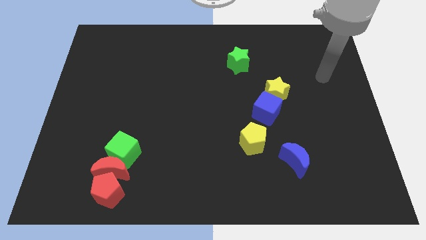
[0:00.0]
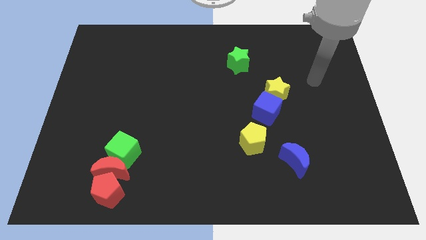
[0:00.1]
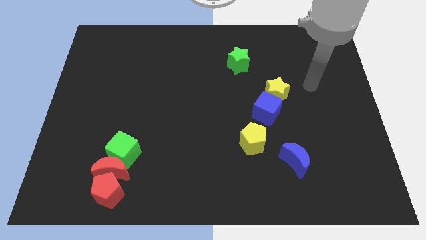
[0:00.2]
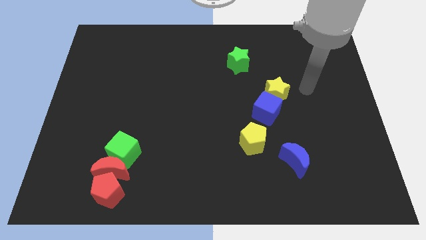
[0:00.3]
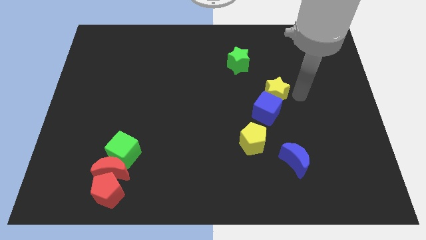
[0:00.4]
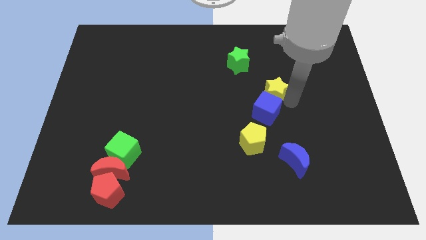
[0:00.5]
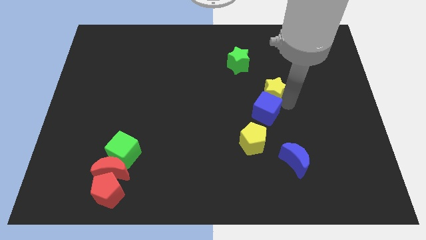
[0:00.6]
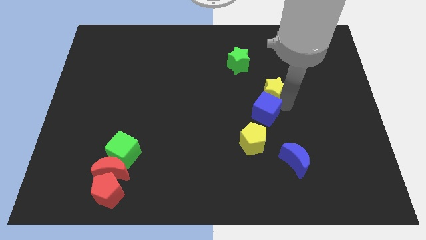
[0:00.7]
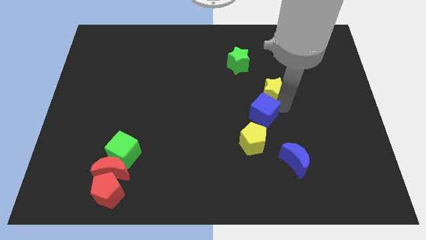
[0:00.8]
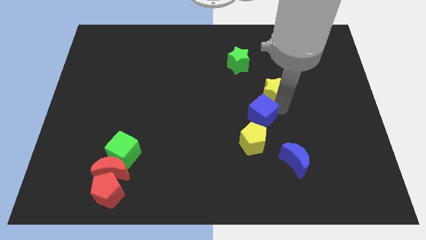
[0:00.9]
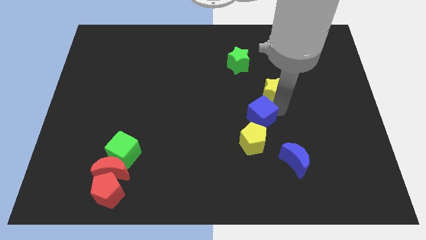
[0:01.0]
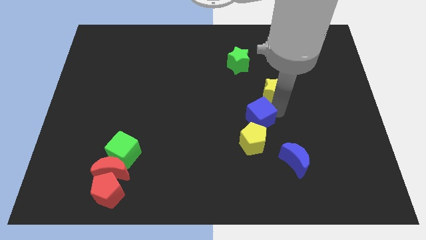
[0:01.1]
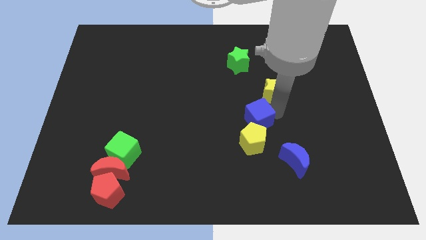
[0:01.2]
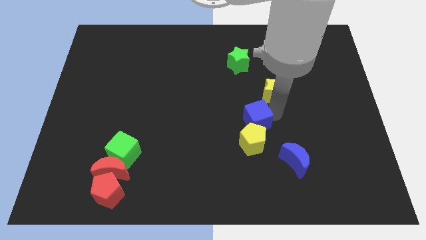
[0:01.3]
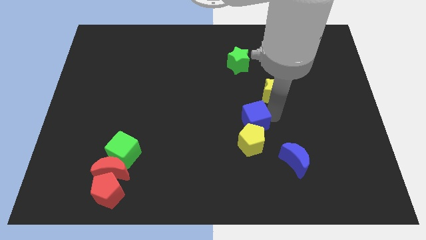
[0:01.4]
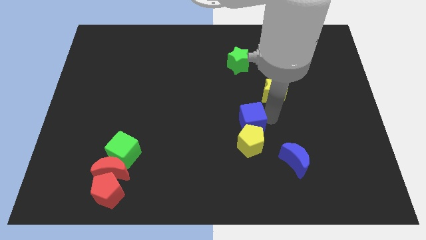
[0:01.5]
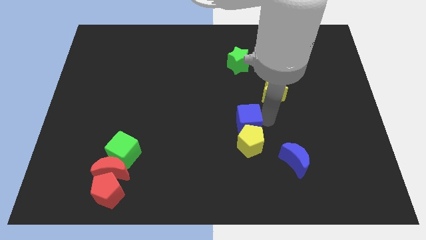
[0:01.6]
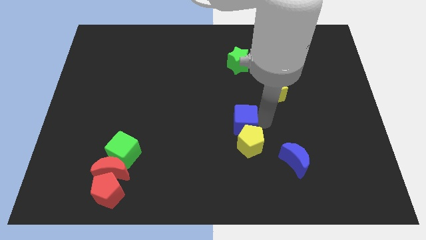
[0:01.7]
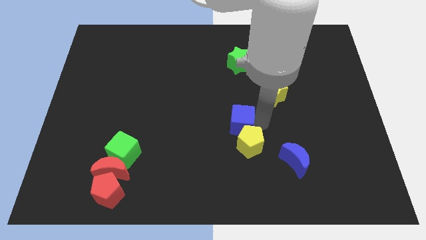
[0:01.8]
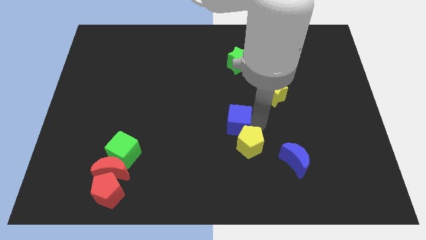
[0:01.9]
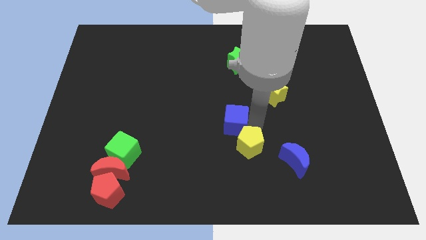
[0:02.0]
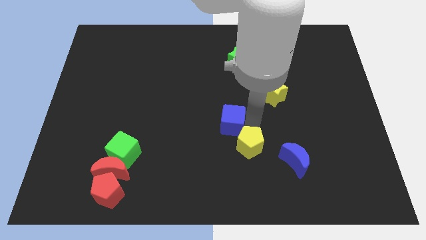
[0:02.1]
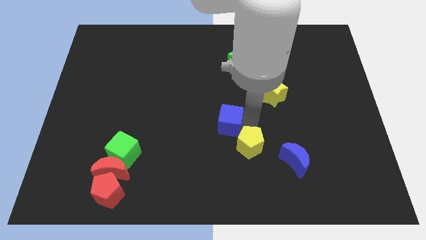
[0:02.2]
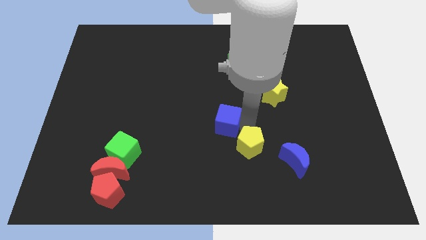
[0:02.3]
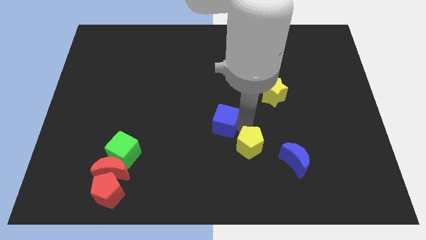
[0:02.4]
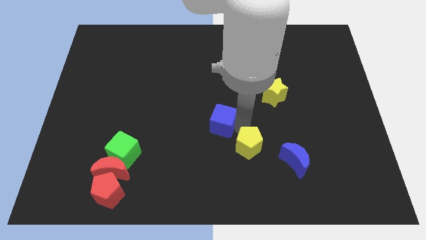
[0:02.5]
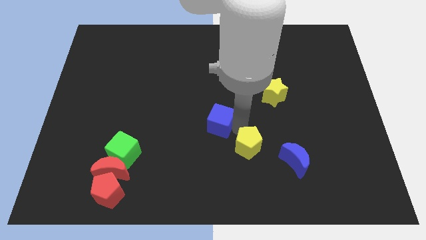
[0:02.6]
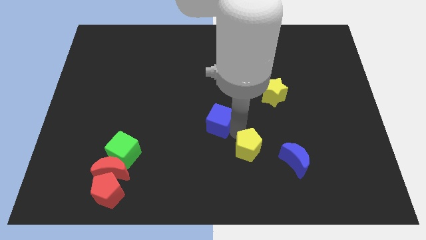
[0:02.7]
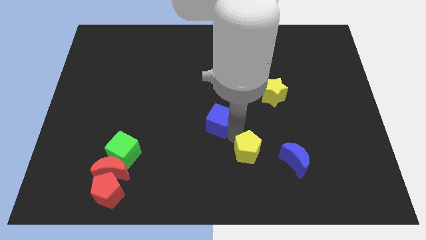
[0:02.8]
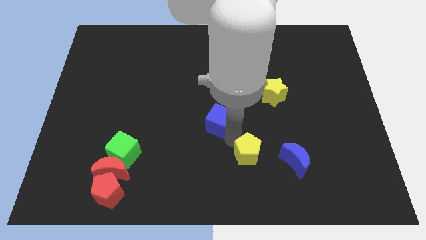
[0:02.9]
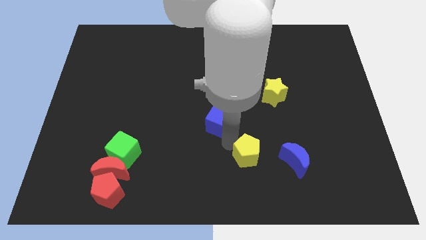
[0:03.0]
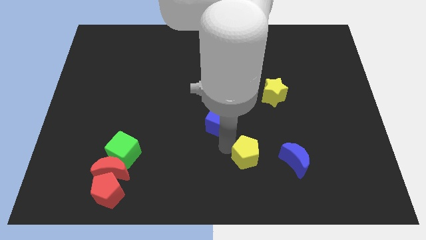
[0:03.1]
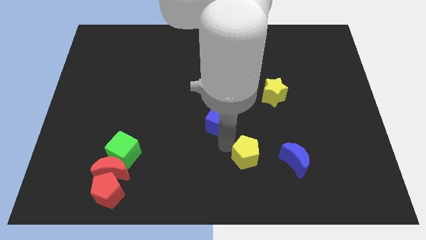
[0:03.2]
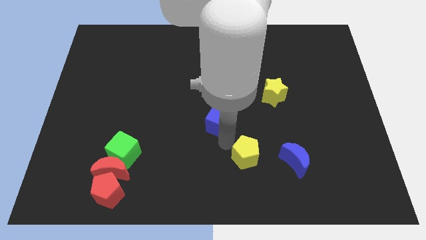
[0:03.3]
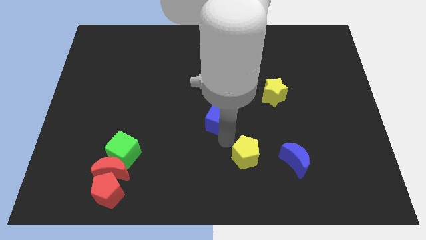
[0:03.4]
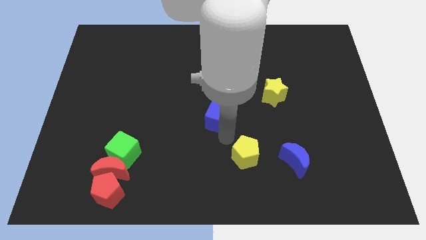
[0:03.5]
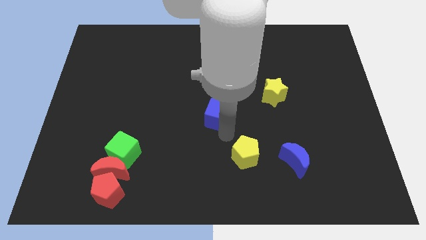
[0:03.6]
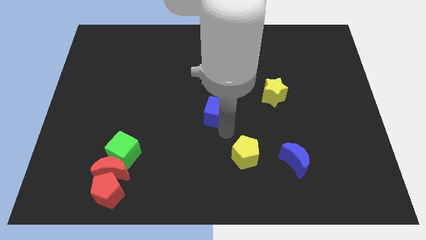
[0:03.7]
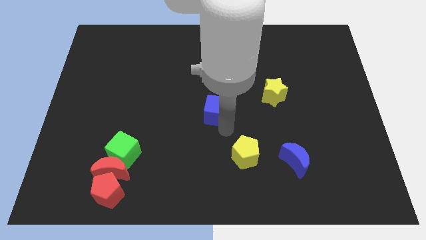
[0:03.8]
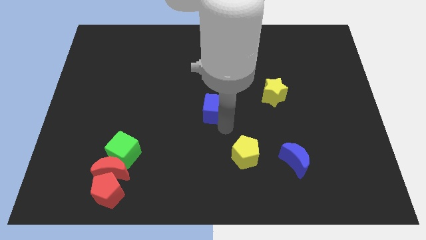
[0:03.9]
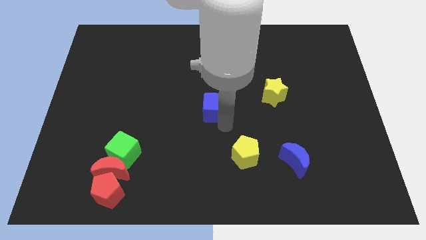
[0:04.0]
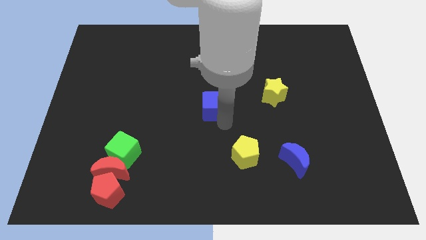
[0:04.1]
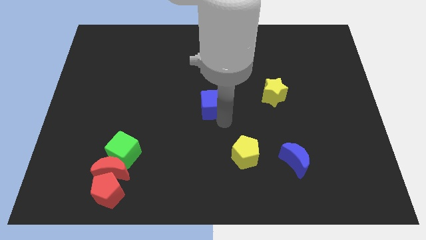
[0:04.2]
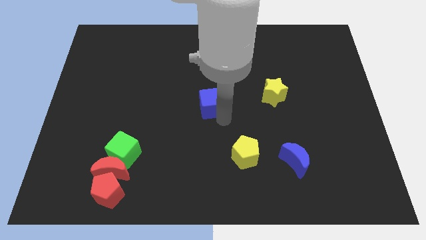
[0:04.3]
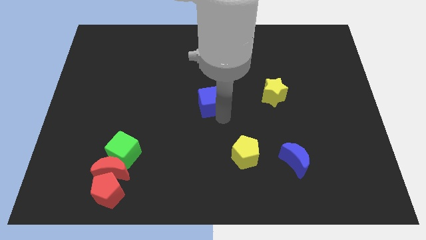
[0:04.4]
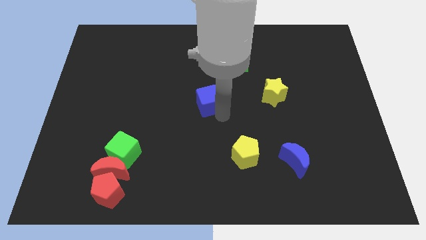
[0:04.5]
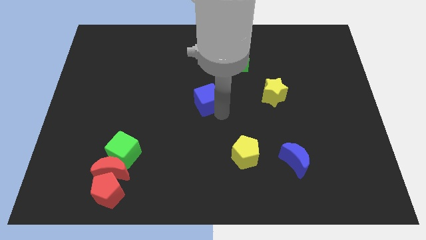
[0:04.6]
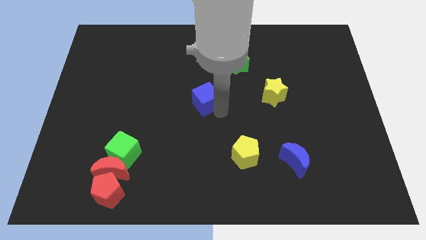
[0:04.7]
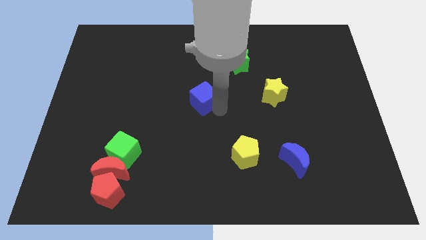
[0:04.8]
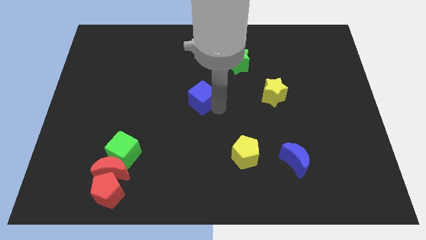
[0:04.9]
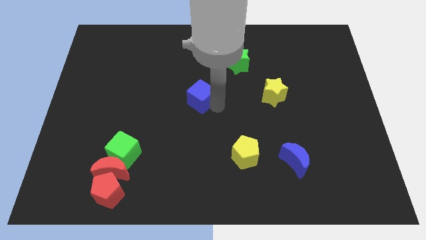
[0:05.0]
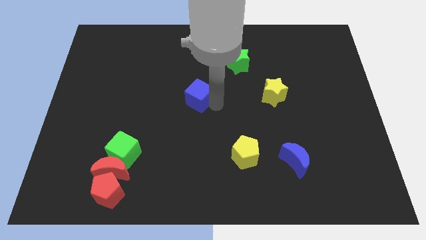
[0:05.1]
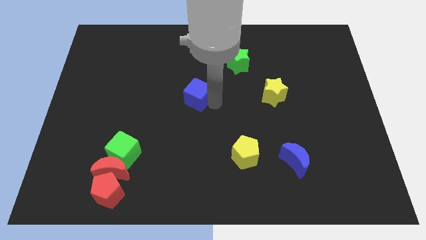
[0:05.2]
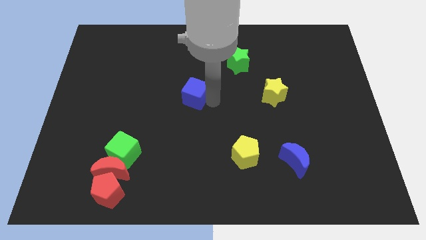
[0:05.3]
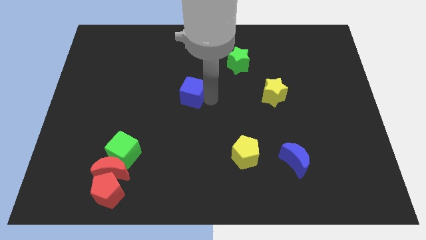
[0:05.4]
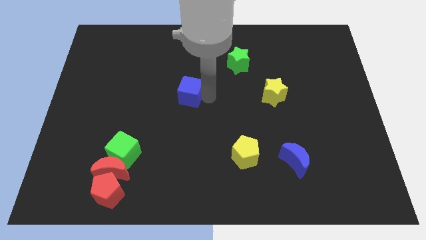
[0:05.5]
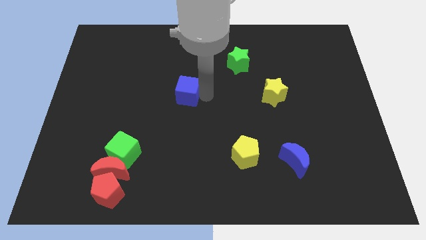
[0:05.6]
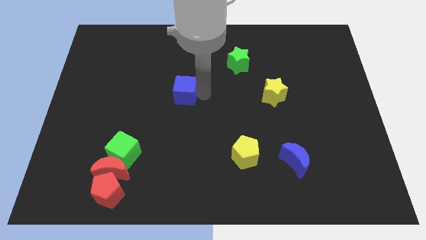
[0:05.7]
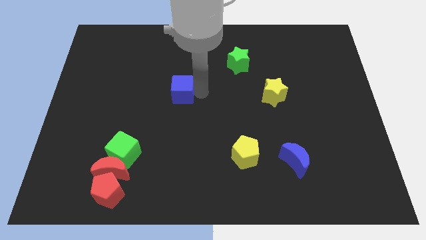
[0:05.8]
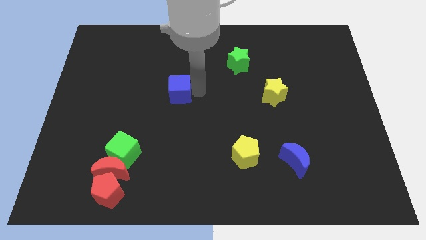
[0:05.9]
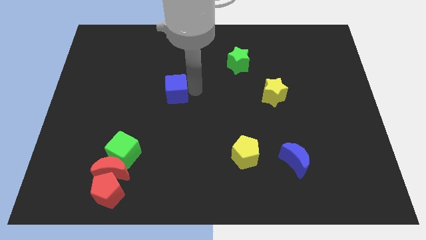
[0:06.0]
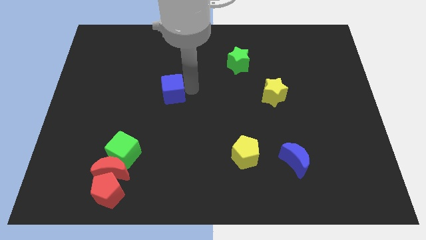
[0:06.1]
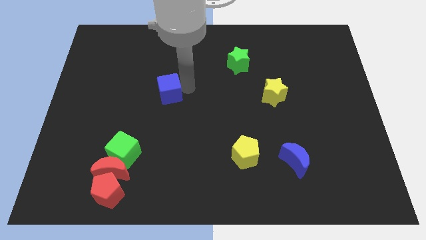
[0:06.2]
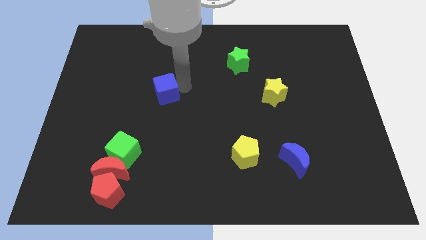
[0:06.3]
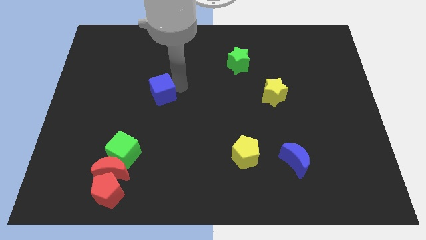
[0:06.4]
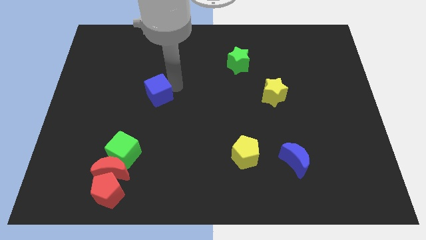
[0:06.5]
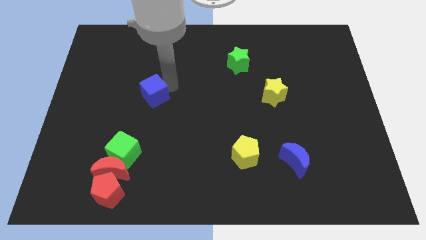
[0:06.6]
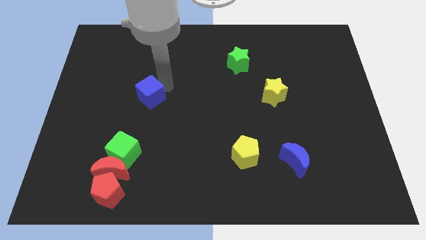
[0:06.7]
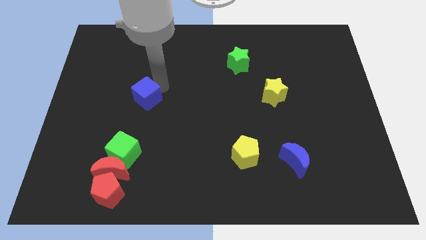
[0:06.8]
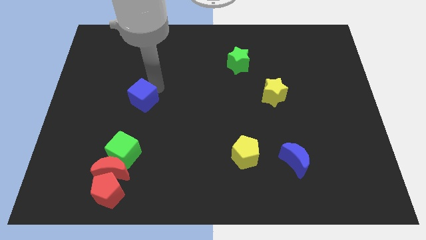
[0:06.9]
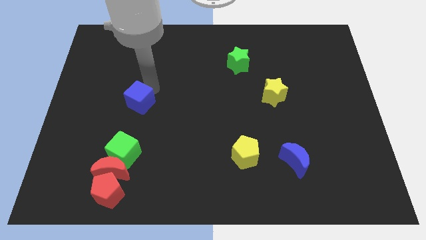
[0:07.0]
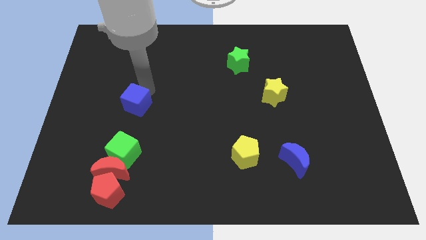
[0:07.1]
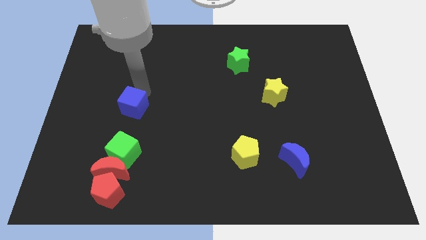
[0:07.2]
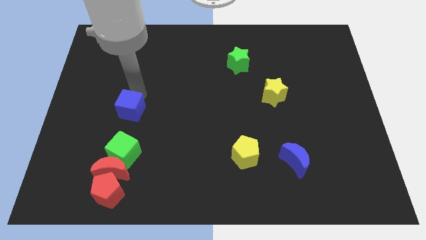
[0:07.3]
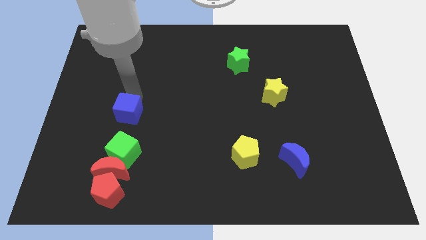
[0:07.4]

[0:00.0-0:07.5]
put the blue cube above the red moon
